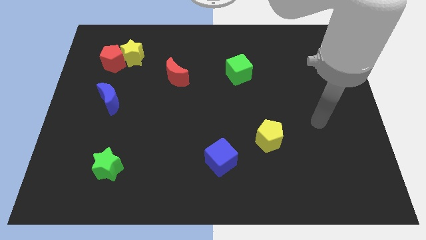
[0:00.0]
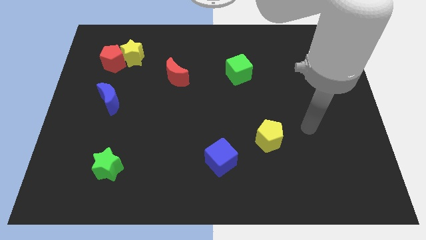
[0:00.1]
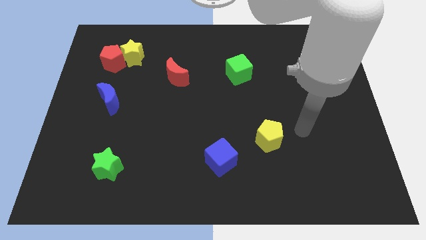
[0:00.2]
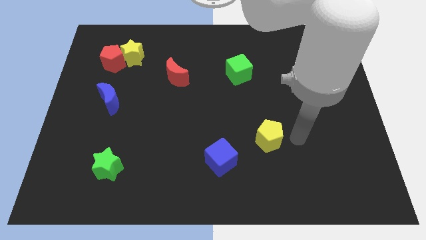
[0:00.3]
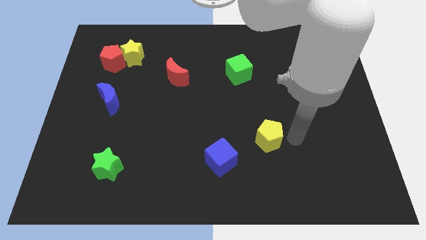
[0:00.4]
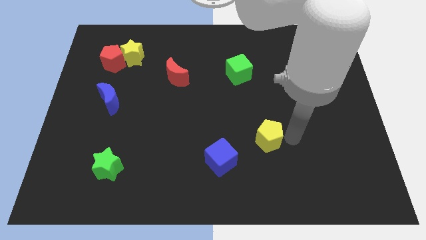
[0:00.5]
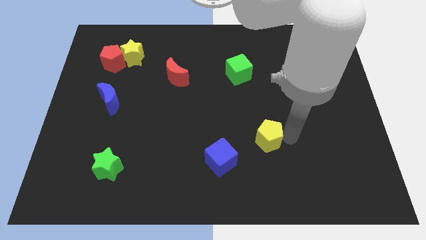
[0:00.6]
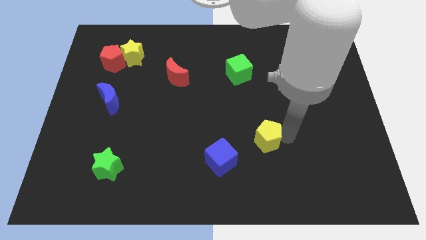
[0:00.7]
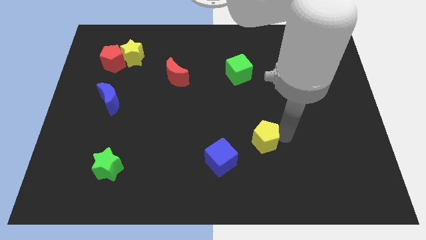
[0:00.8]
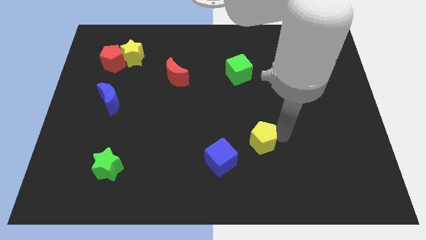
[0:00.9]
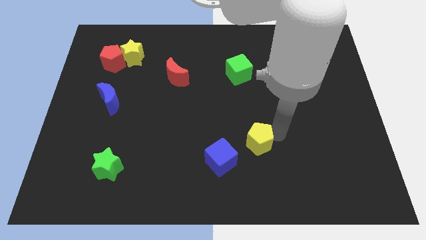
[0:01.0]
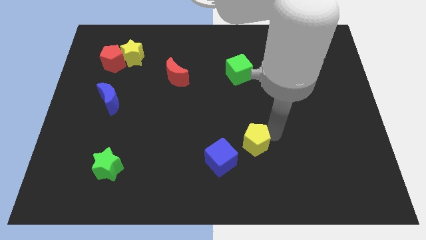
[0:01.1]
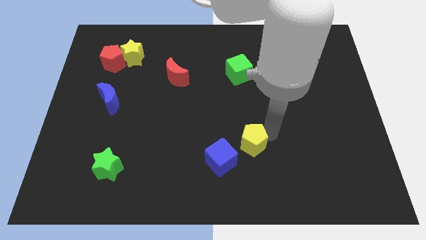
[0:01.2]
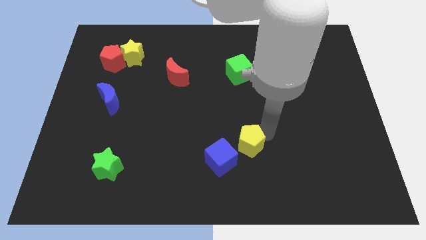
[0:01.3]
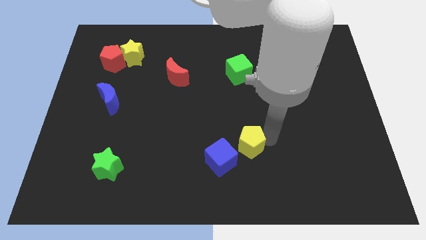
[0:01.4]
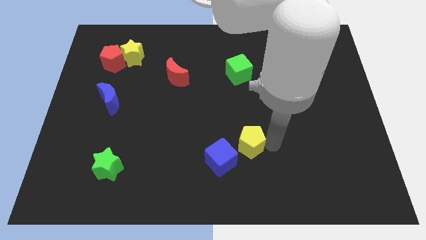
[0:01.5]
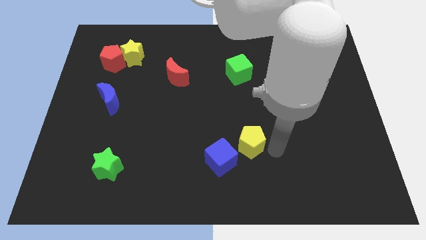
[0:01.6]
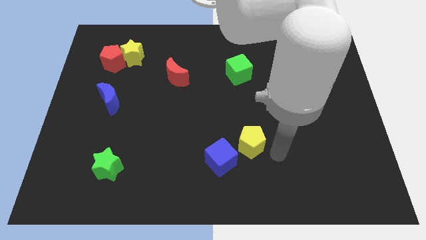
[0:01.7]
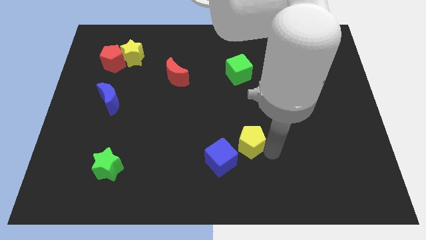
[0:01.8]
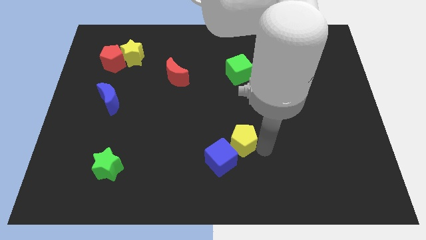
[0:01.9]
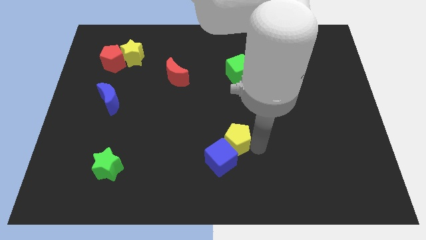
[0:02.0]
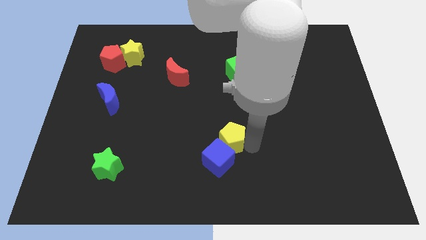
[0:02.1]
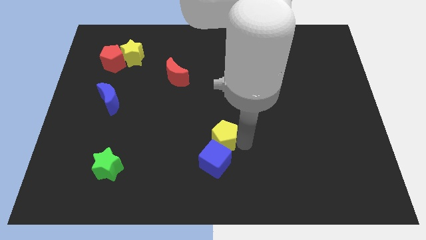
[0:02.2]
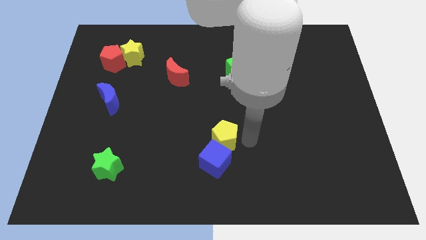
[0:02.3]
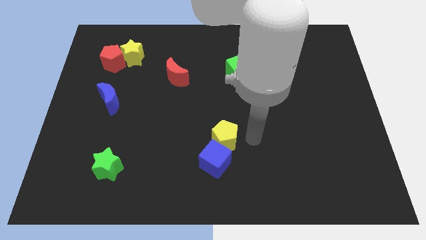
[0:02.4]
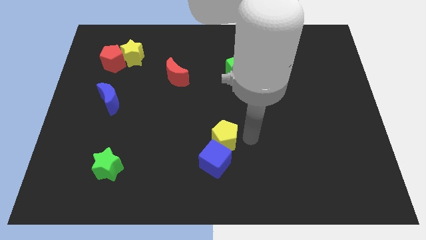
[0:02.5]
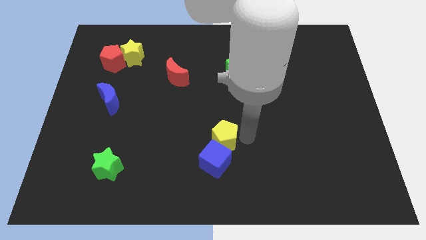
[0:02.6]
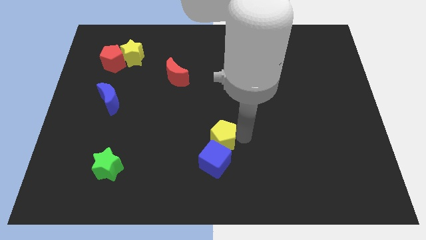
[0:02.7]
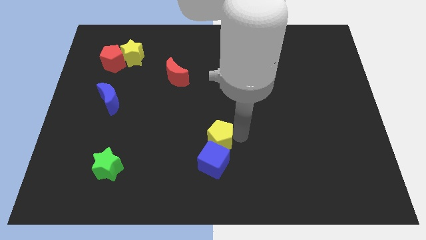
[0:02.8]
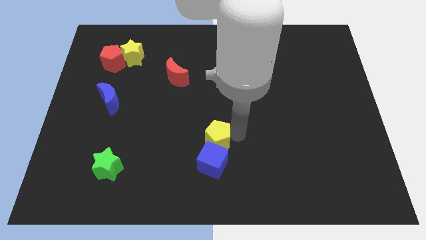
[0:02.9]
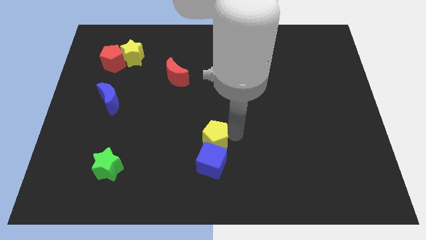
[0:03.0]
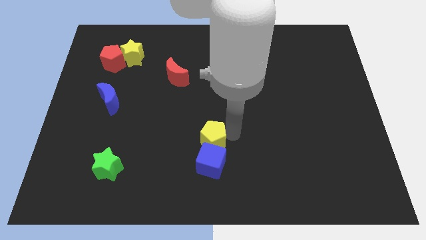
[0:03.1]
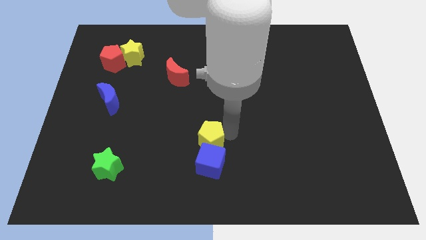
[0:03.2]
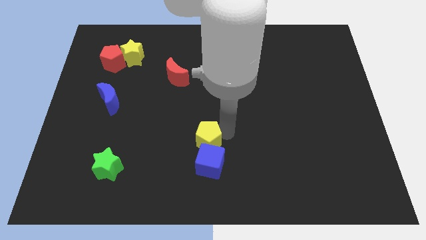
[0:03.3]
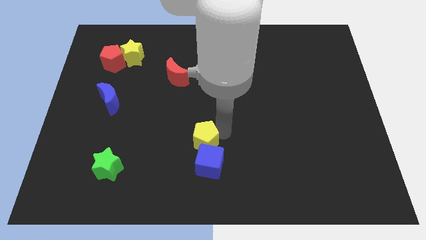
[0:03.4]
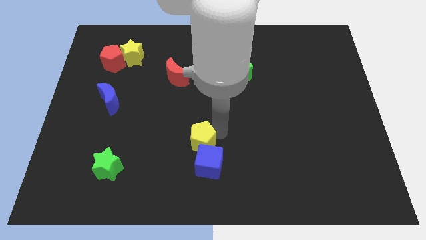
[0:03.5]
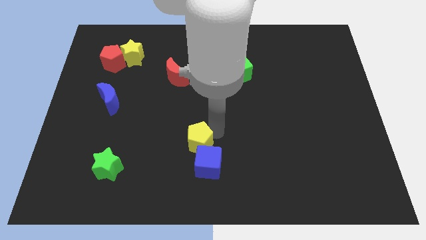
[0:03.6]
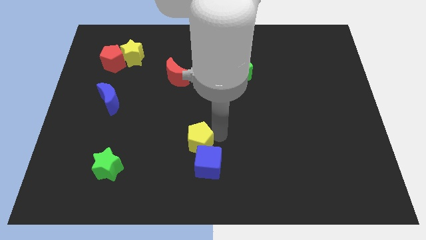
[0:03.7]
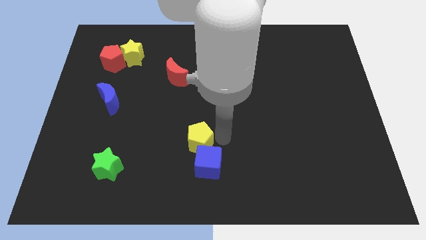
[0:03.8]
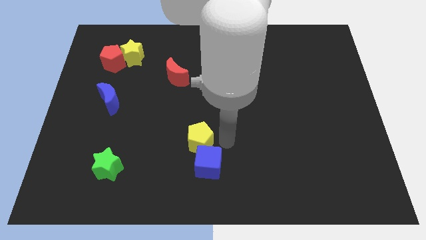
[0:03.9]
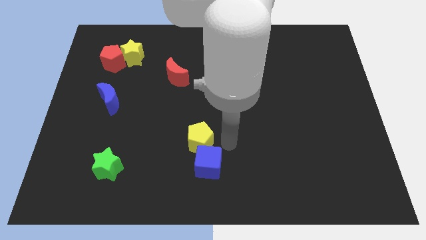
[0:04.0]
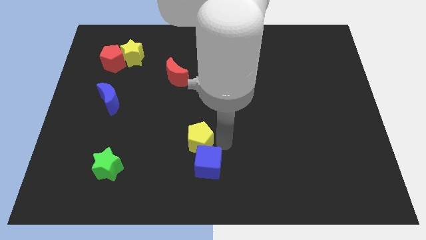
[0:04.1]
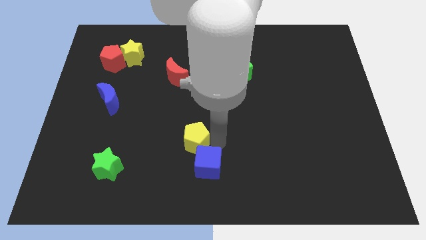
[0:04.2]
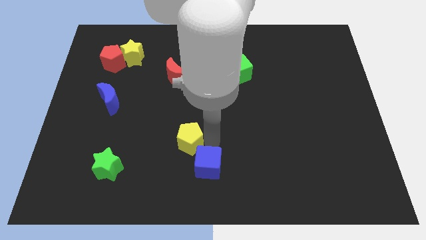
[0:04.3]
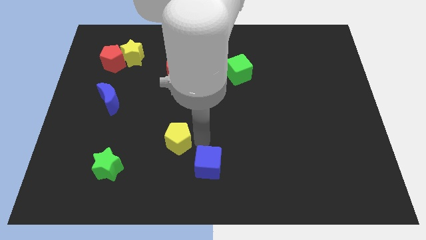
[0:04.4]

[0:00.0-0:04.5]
push the yellow pentagon left

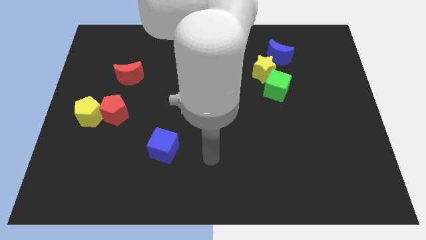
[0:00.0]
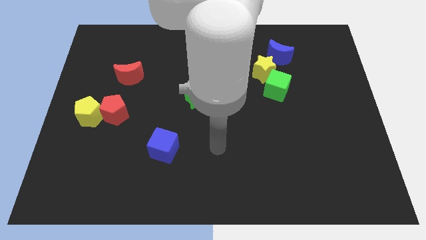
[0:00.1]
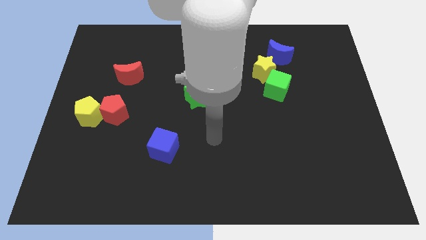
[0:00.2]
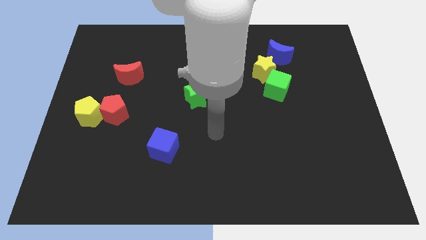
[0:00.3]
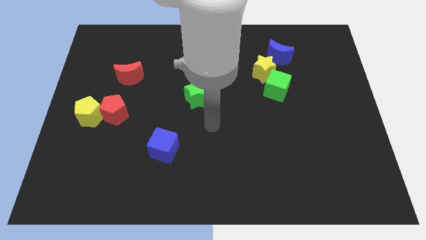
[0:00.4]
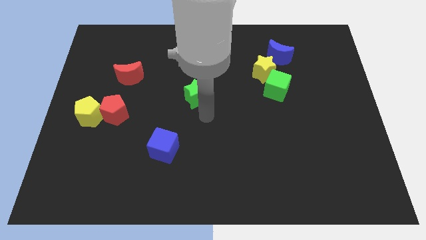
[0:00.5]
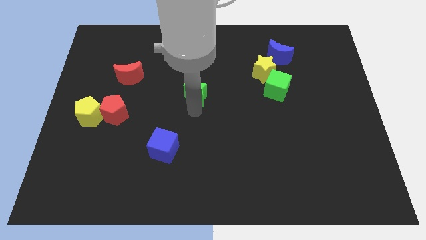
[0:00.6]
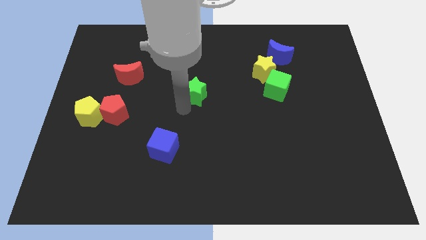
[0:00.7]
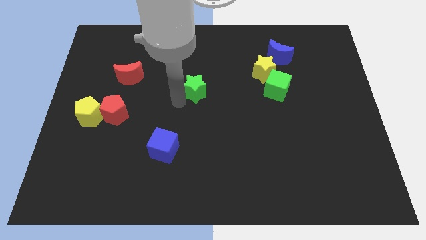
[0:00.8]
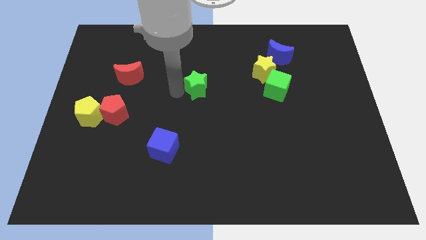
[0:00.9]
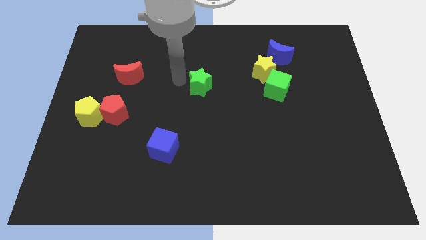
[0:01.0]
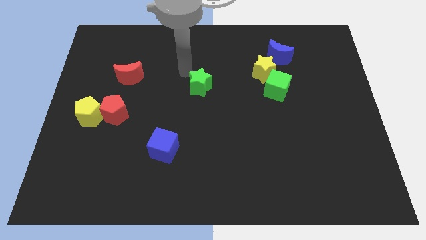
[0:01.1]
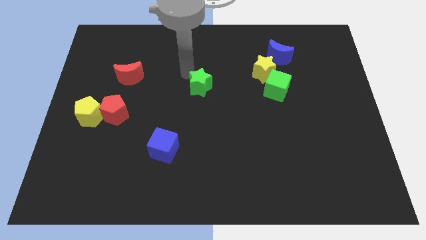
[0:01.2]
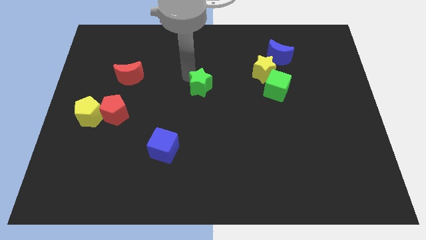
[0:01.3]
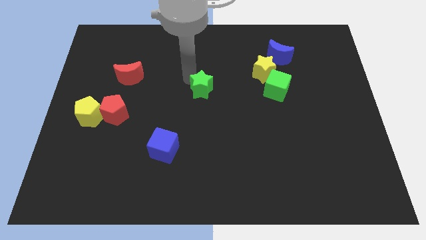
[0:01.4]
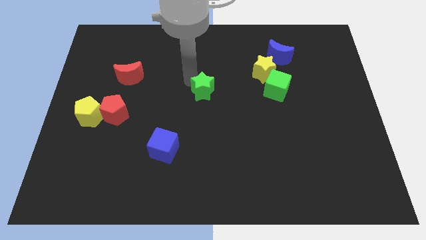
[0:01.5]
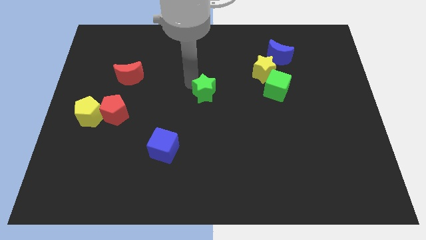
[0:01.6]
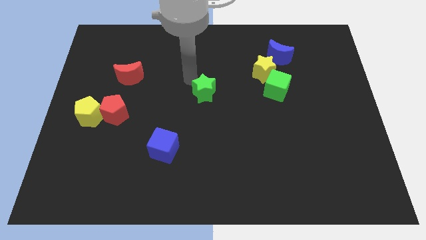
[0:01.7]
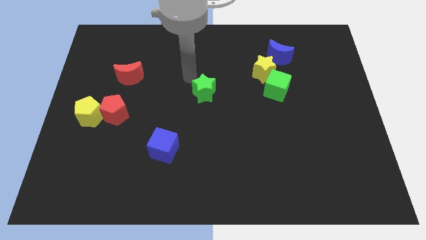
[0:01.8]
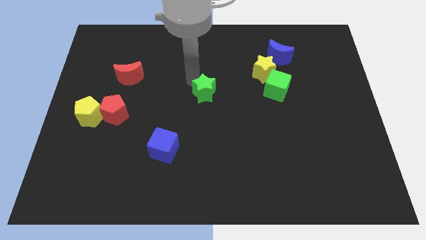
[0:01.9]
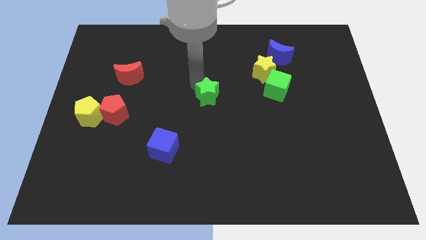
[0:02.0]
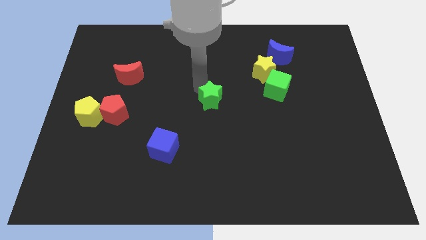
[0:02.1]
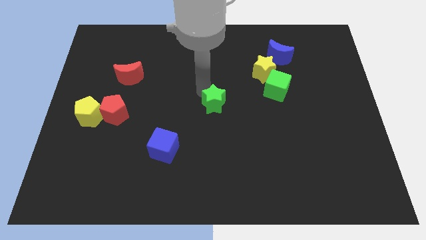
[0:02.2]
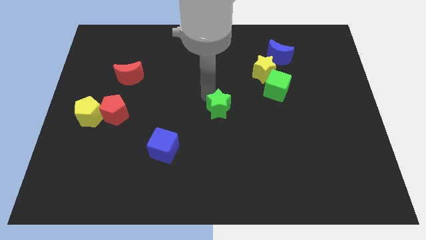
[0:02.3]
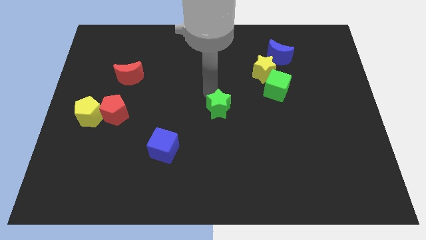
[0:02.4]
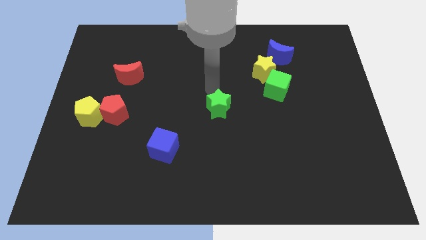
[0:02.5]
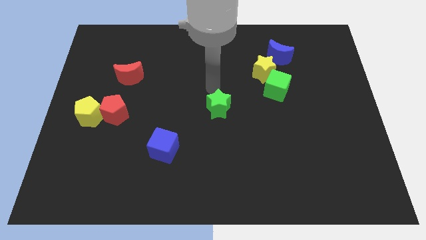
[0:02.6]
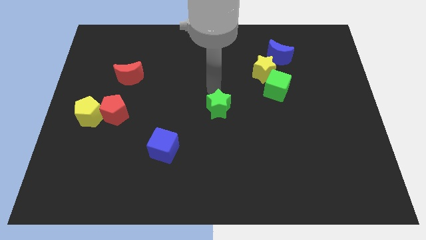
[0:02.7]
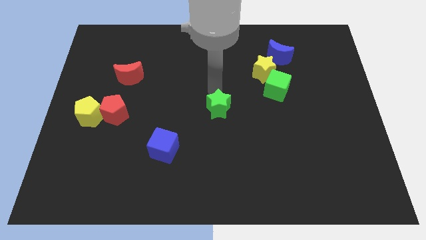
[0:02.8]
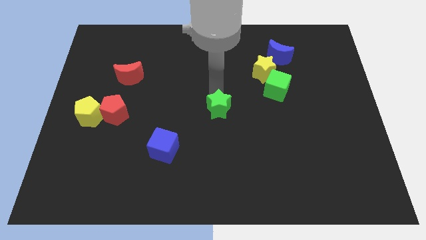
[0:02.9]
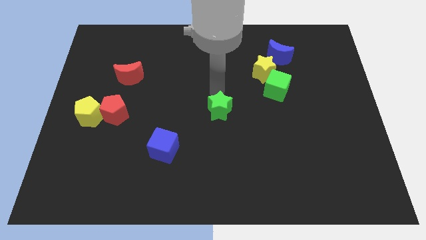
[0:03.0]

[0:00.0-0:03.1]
push the green star diagonally down and to the right slightly

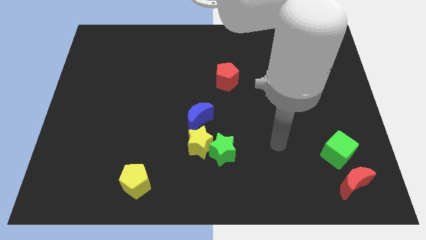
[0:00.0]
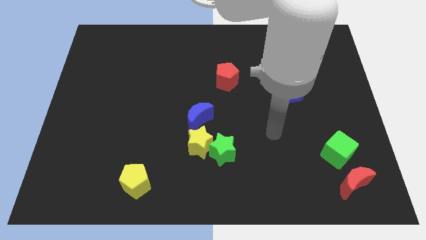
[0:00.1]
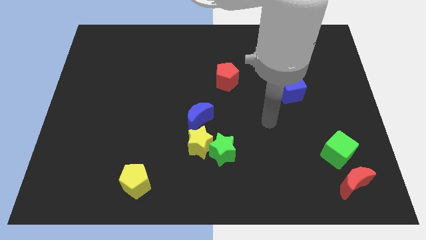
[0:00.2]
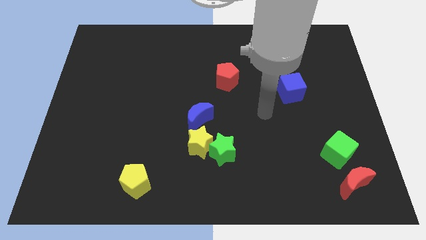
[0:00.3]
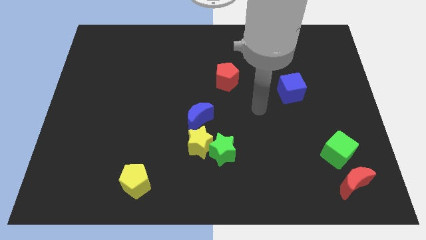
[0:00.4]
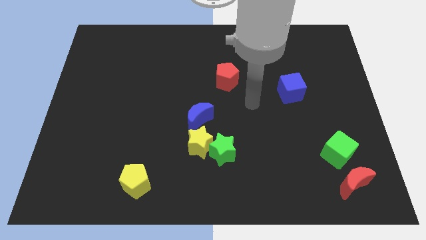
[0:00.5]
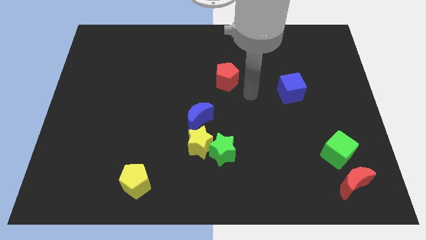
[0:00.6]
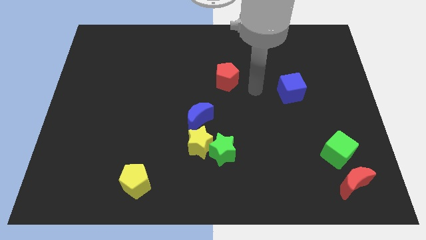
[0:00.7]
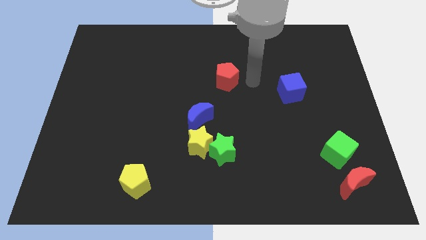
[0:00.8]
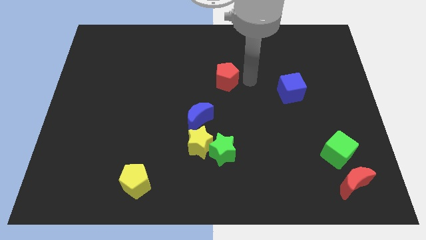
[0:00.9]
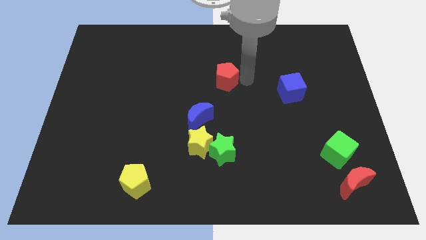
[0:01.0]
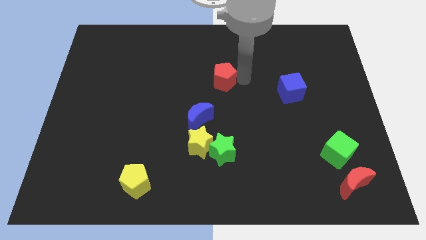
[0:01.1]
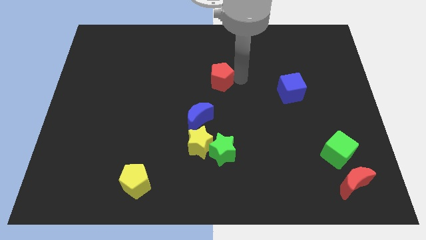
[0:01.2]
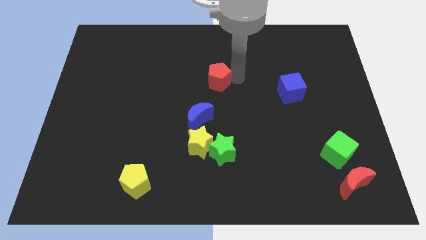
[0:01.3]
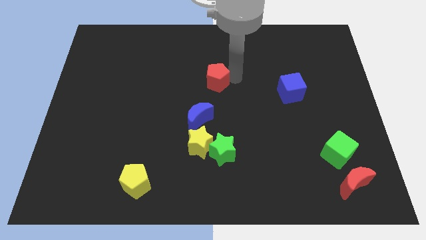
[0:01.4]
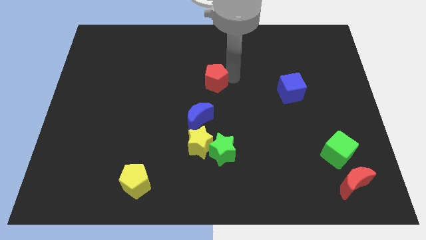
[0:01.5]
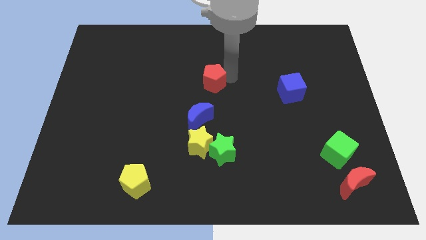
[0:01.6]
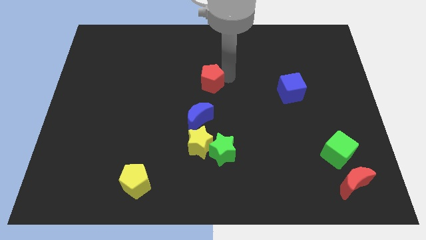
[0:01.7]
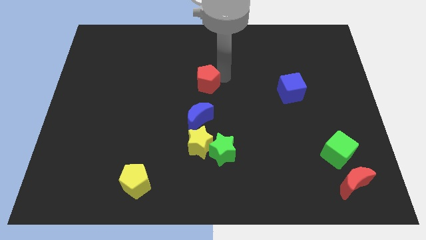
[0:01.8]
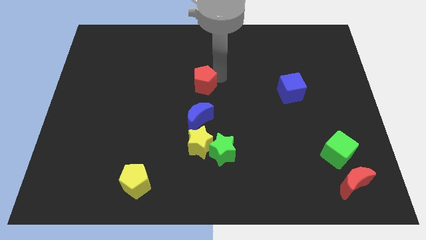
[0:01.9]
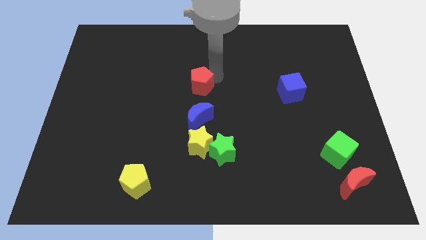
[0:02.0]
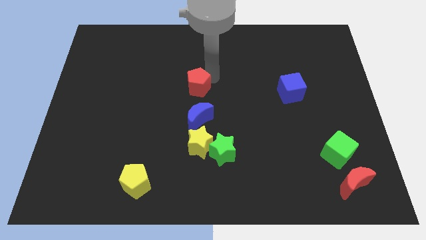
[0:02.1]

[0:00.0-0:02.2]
slightly slide the red pentagon left
